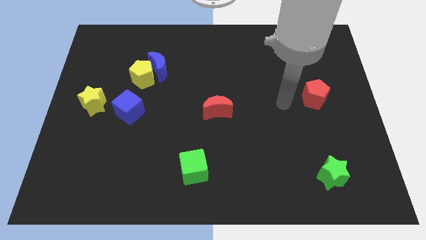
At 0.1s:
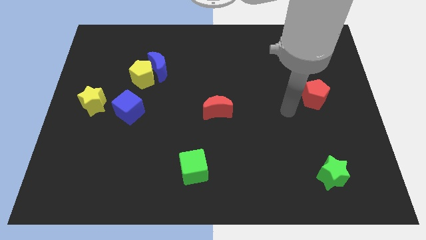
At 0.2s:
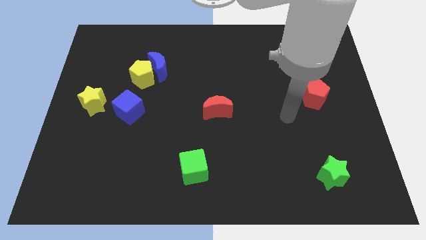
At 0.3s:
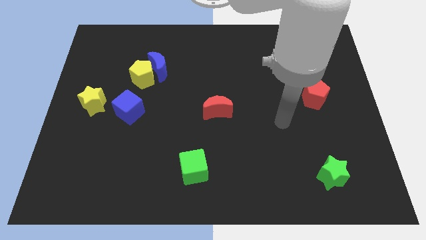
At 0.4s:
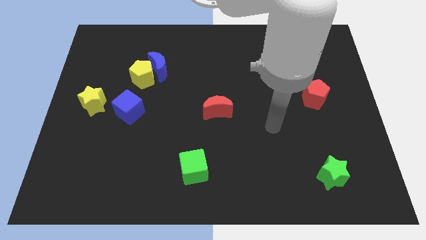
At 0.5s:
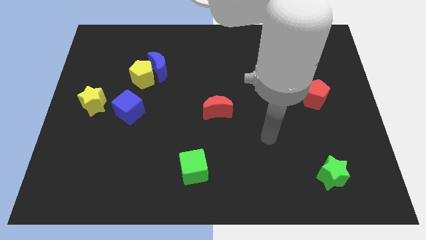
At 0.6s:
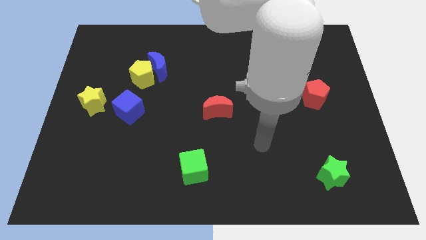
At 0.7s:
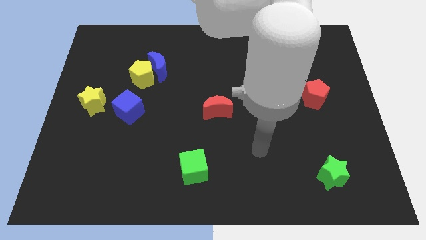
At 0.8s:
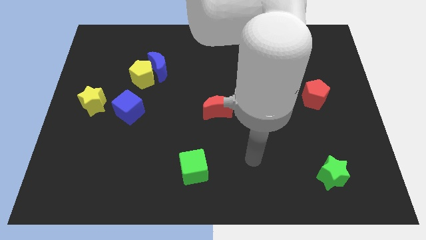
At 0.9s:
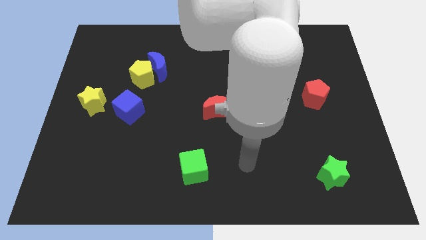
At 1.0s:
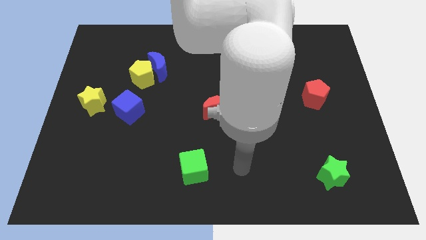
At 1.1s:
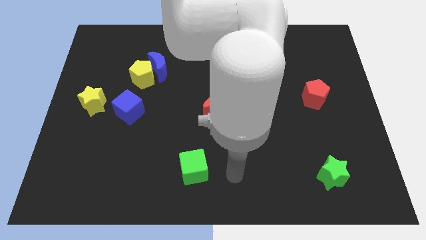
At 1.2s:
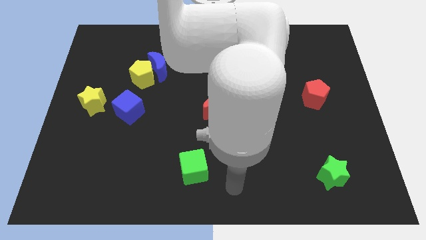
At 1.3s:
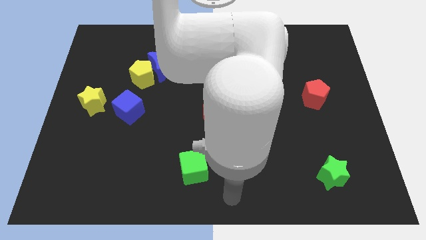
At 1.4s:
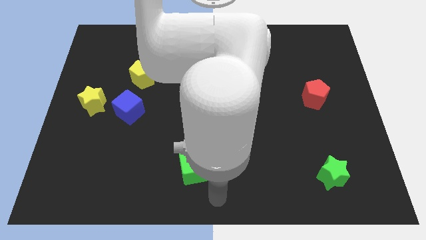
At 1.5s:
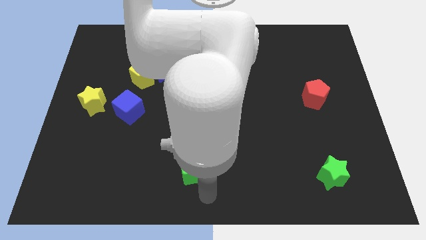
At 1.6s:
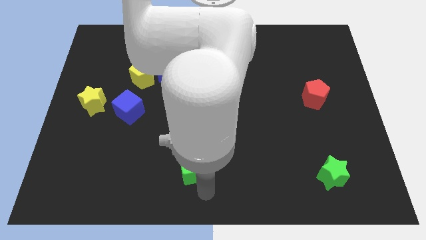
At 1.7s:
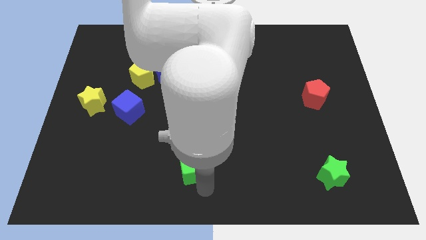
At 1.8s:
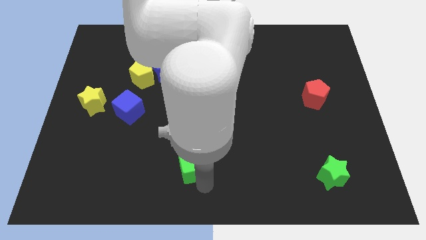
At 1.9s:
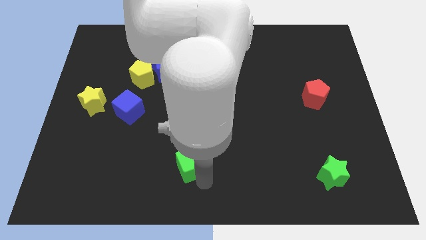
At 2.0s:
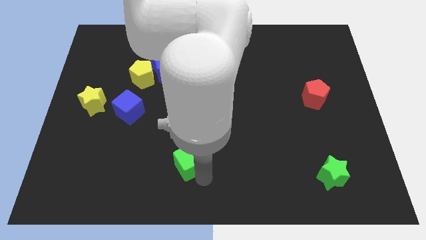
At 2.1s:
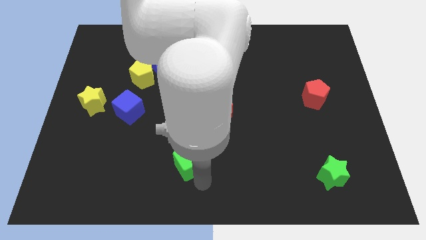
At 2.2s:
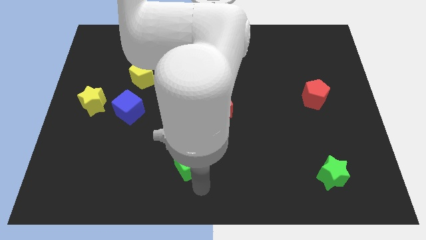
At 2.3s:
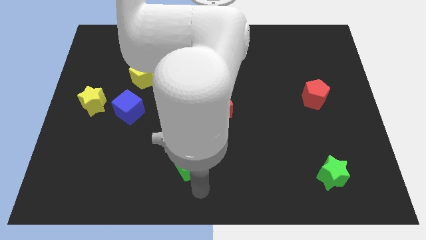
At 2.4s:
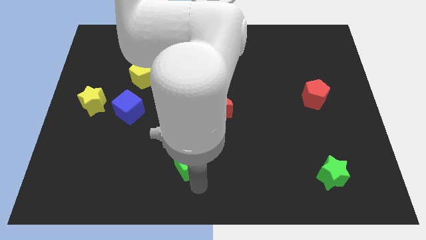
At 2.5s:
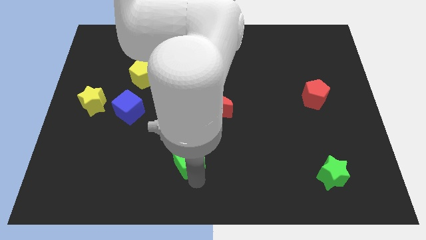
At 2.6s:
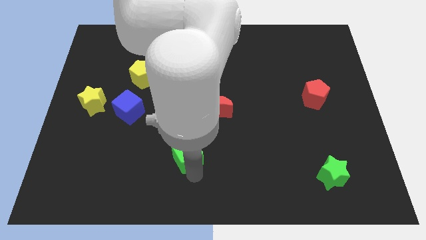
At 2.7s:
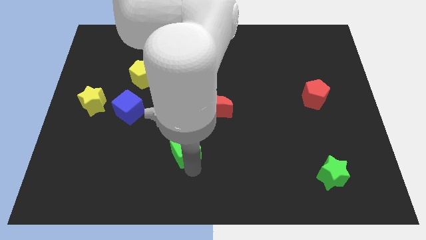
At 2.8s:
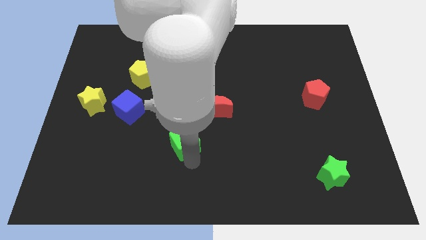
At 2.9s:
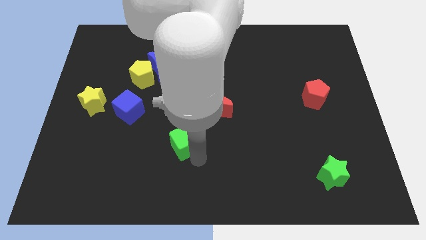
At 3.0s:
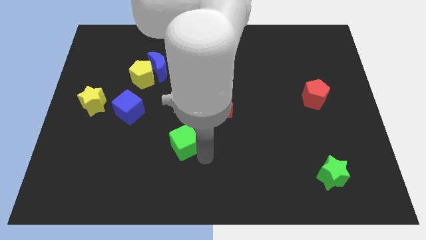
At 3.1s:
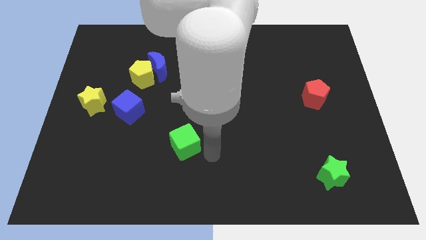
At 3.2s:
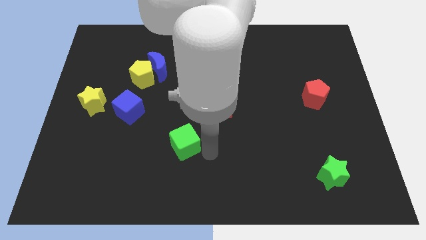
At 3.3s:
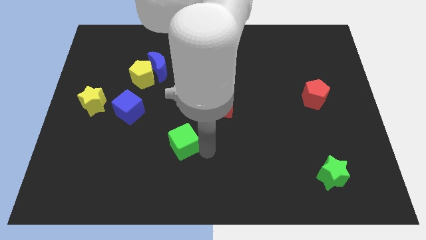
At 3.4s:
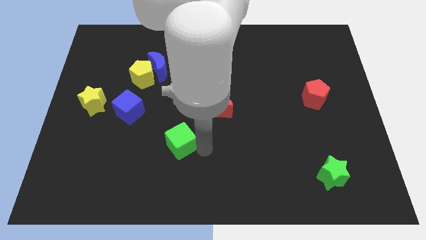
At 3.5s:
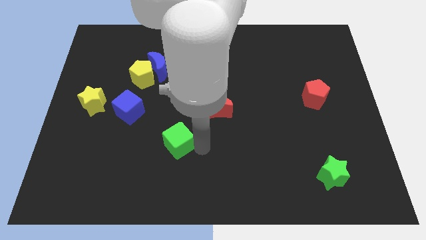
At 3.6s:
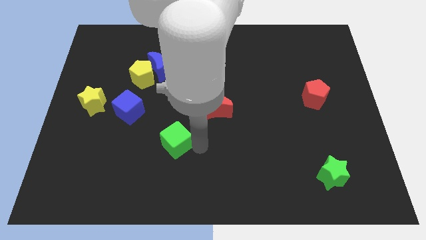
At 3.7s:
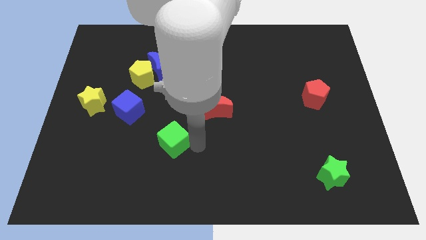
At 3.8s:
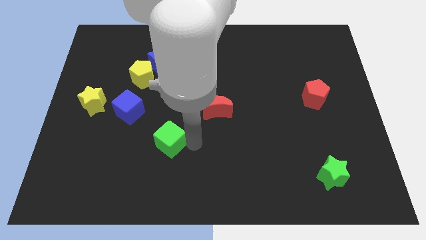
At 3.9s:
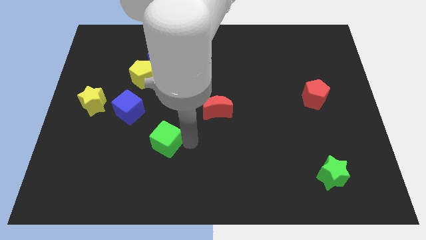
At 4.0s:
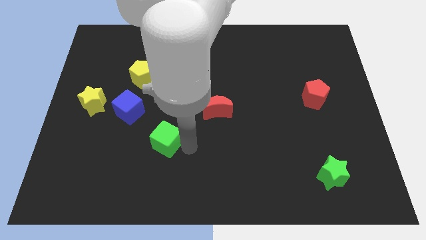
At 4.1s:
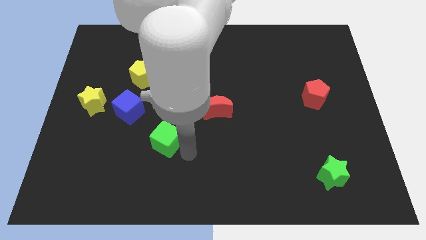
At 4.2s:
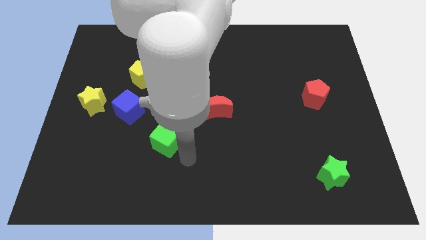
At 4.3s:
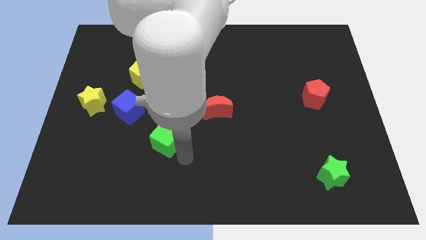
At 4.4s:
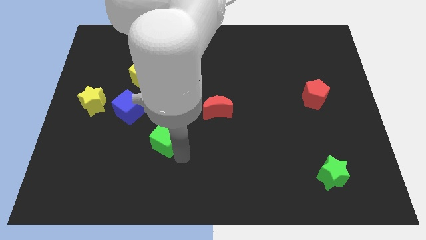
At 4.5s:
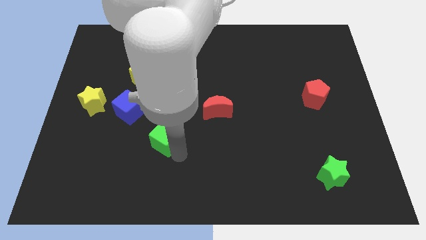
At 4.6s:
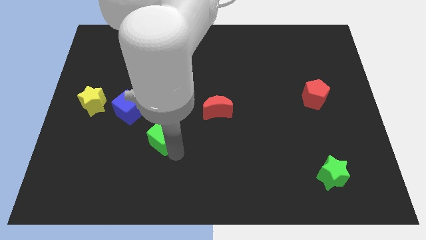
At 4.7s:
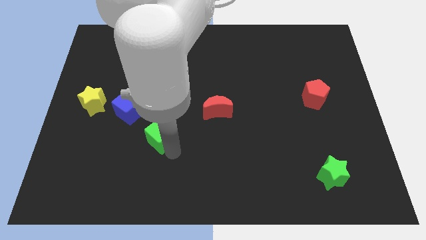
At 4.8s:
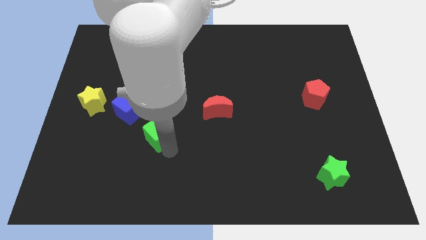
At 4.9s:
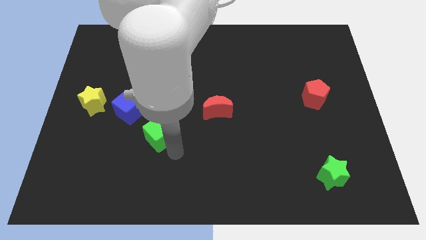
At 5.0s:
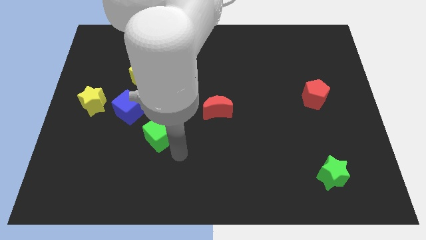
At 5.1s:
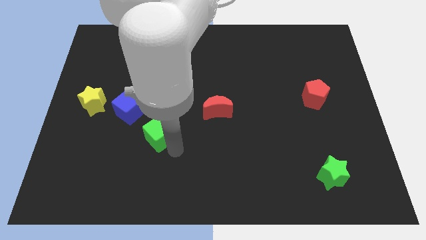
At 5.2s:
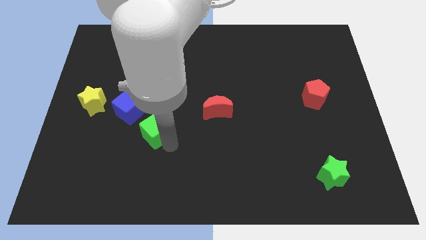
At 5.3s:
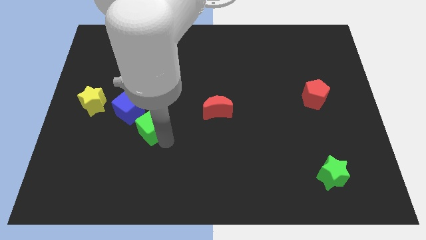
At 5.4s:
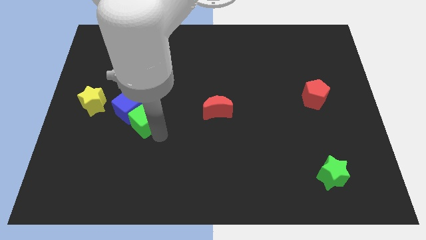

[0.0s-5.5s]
slide the green cube close to the blue cube

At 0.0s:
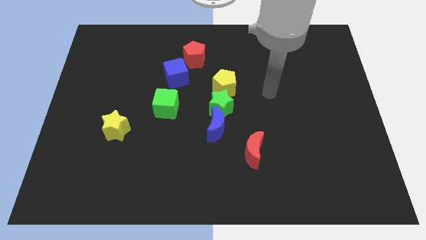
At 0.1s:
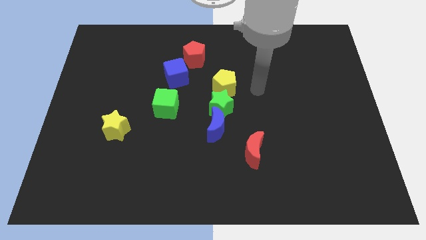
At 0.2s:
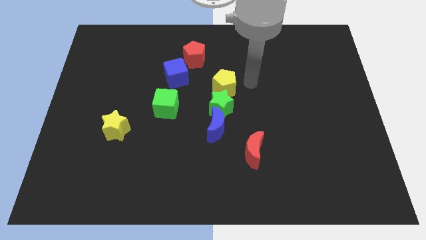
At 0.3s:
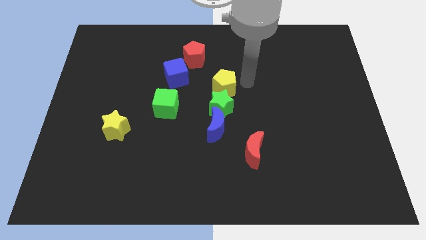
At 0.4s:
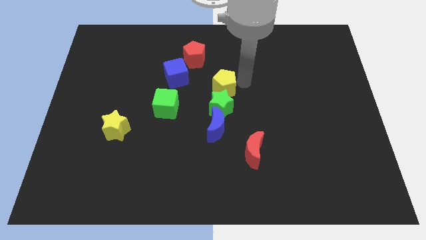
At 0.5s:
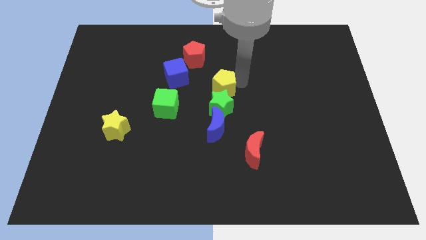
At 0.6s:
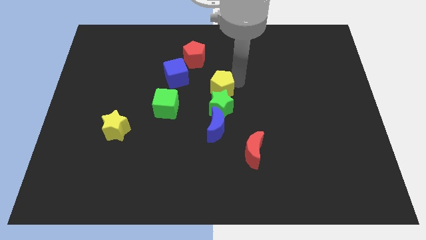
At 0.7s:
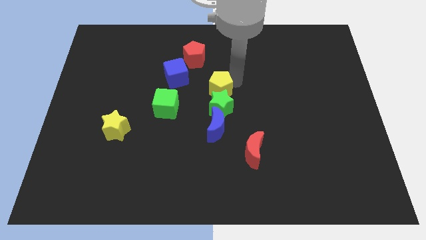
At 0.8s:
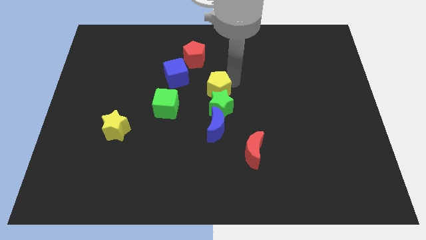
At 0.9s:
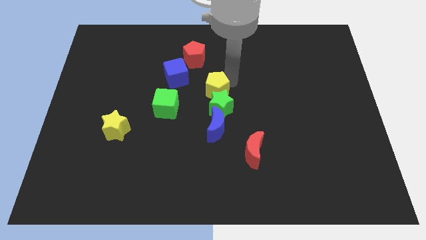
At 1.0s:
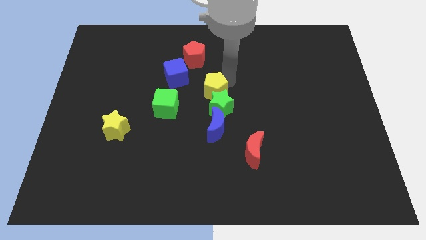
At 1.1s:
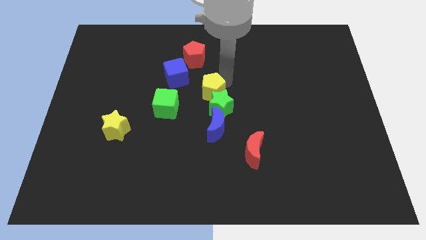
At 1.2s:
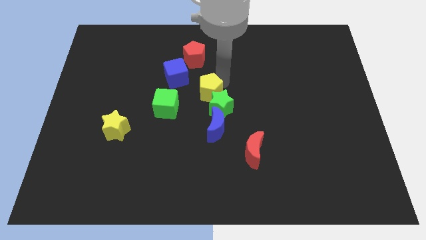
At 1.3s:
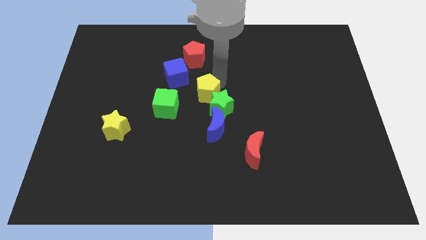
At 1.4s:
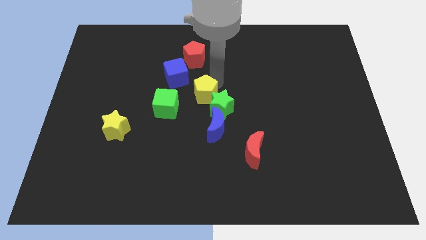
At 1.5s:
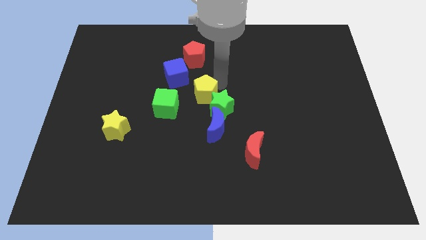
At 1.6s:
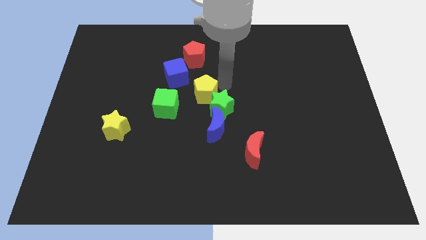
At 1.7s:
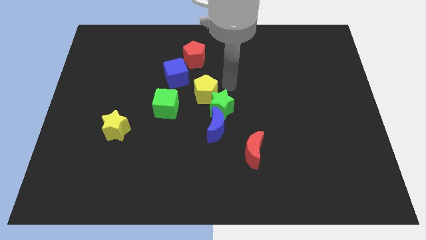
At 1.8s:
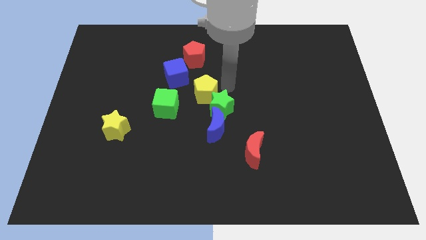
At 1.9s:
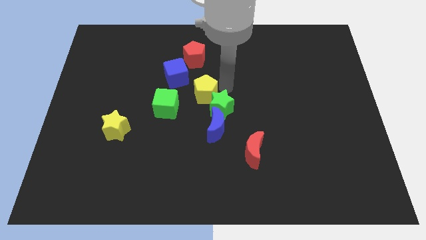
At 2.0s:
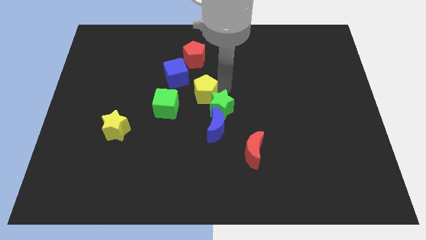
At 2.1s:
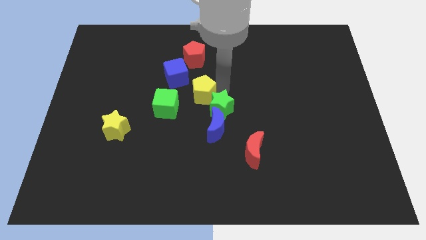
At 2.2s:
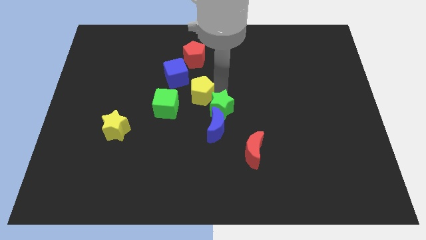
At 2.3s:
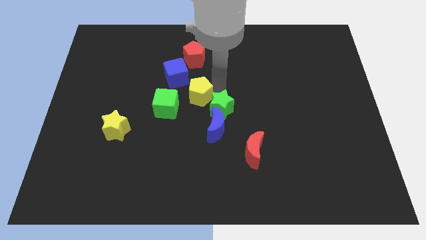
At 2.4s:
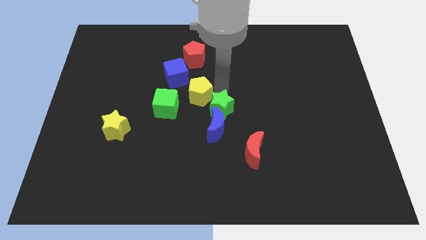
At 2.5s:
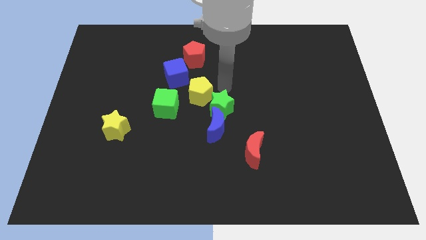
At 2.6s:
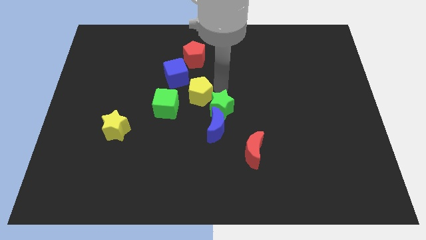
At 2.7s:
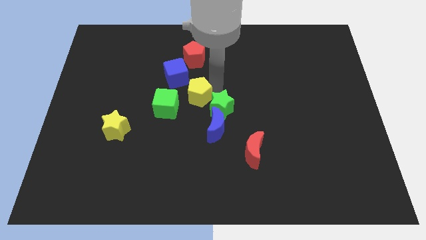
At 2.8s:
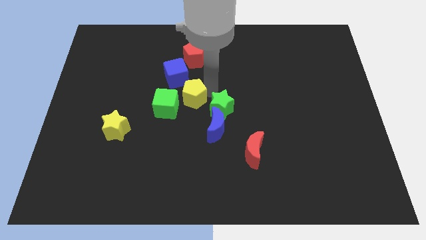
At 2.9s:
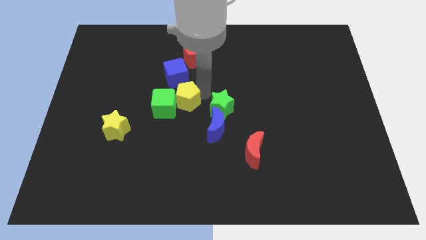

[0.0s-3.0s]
move the yellow pentagon close to the green cube
